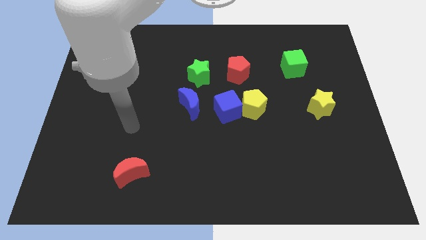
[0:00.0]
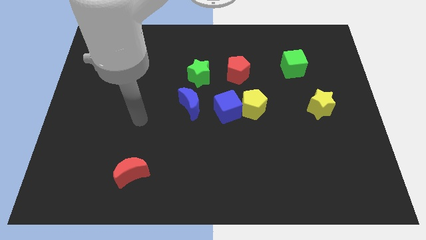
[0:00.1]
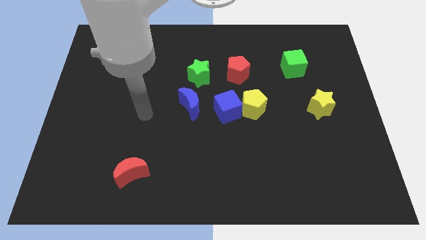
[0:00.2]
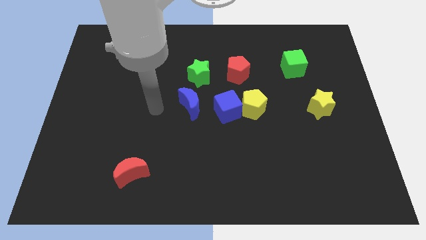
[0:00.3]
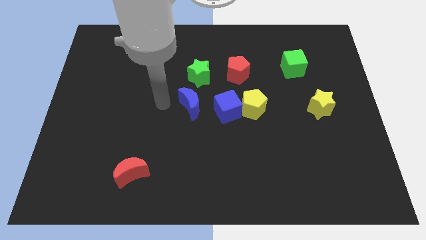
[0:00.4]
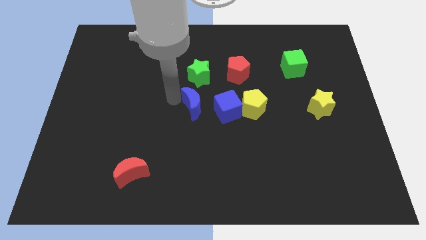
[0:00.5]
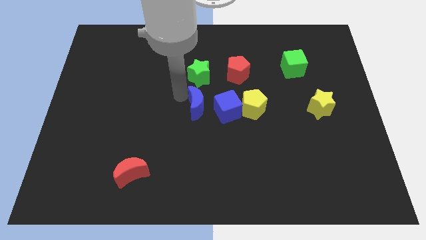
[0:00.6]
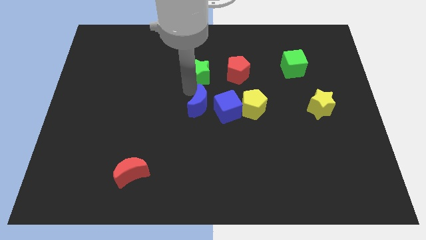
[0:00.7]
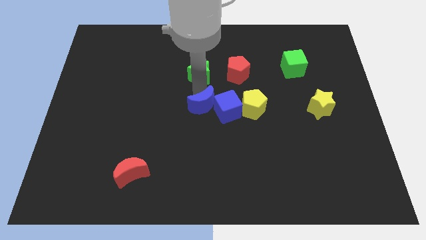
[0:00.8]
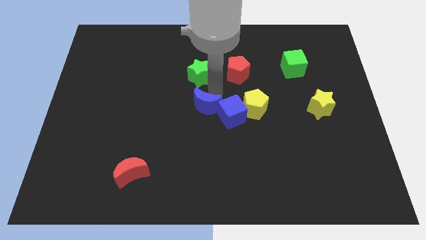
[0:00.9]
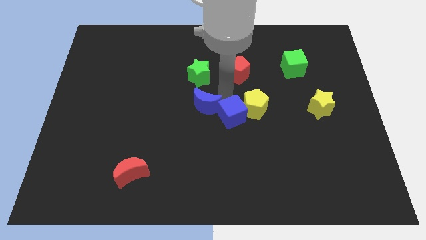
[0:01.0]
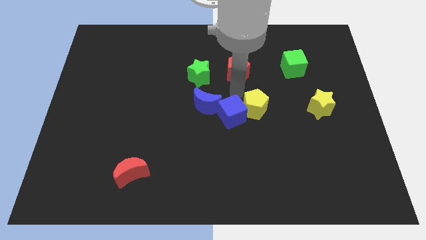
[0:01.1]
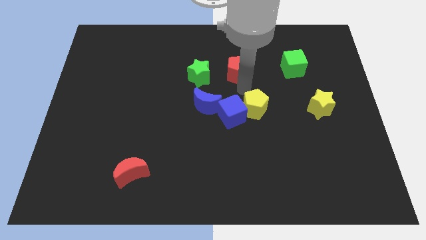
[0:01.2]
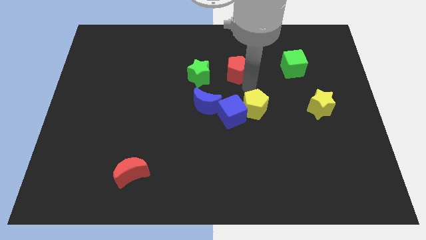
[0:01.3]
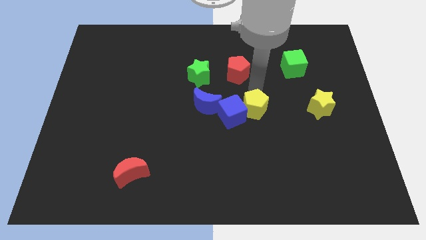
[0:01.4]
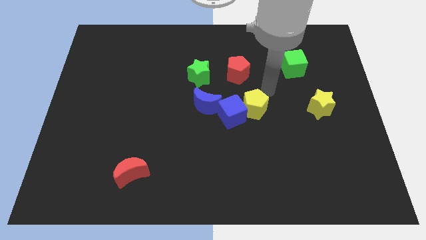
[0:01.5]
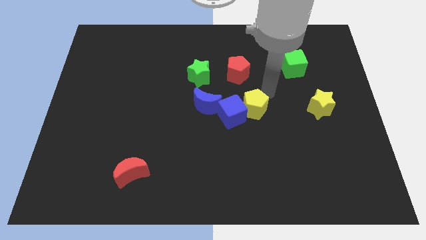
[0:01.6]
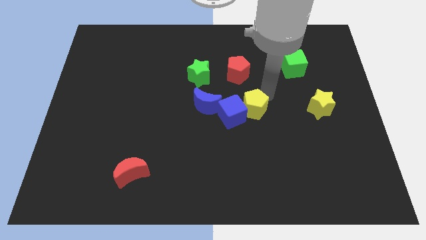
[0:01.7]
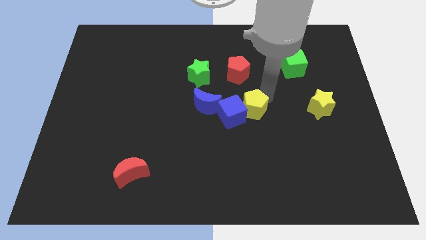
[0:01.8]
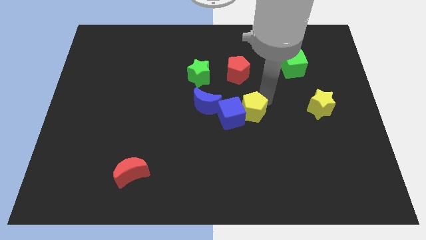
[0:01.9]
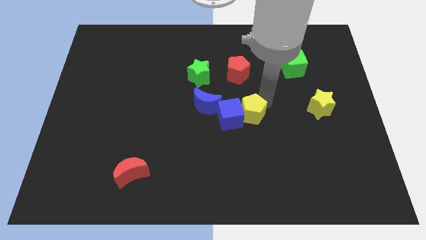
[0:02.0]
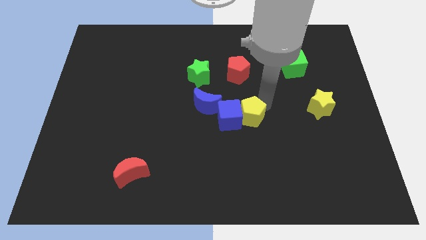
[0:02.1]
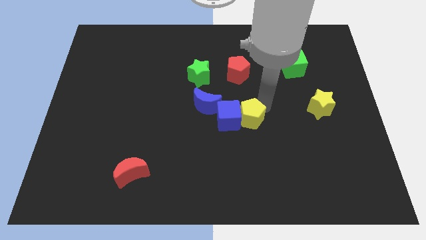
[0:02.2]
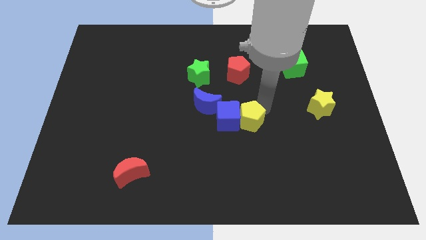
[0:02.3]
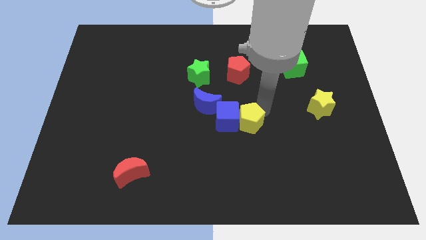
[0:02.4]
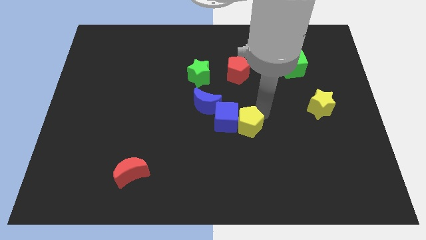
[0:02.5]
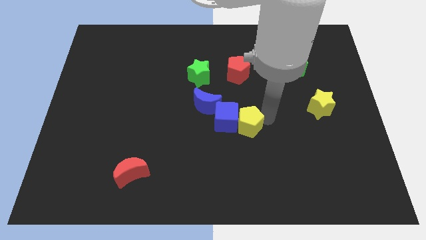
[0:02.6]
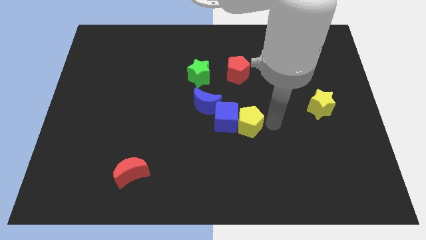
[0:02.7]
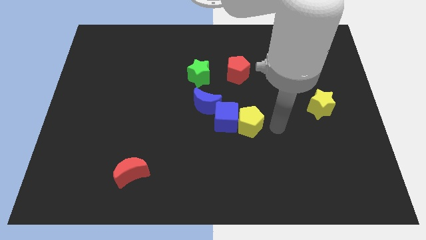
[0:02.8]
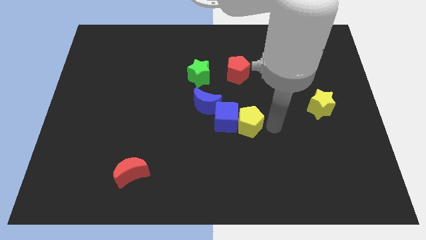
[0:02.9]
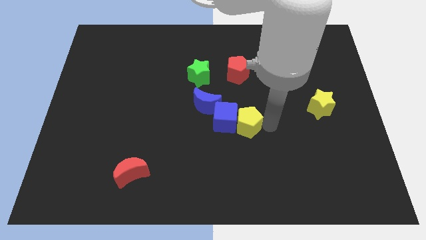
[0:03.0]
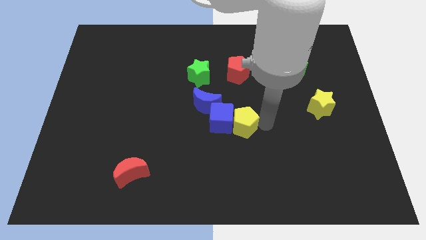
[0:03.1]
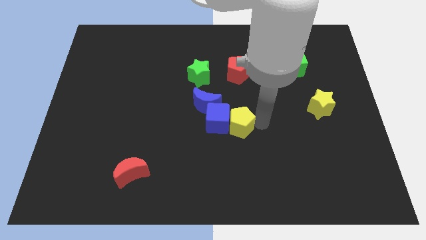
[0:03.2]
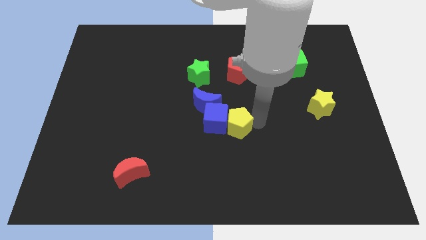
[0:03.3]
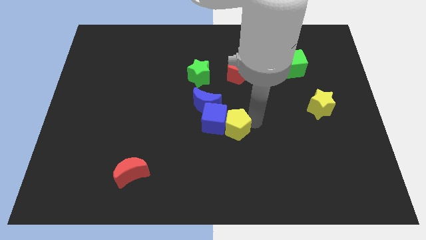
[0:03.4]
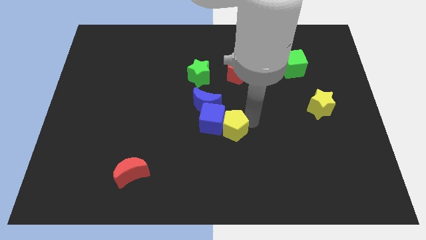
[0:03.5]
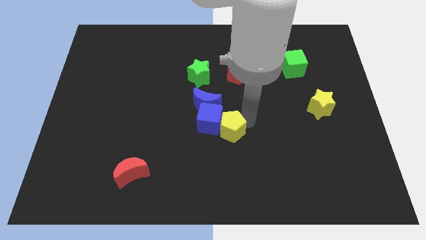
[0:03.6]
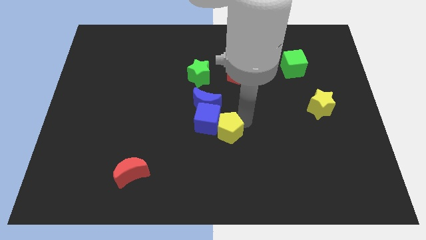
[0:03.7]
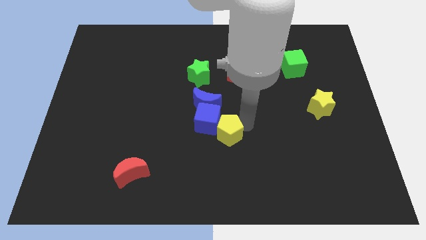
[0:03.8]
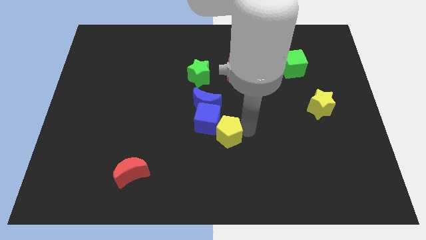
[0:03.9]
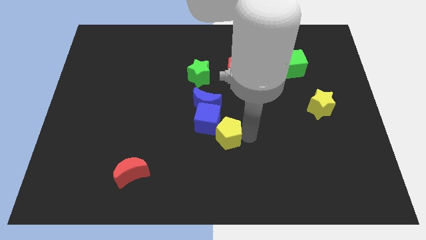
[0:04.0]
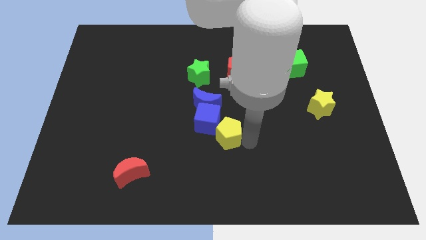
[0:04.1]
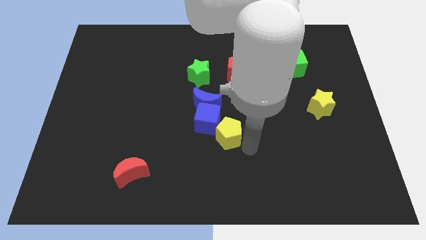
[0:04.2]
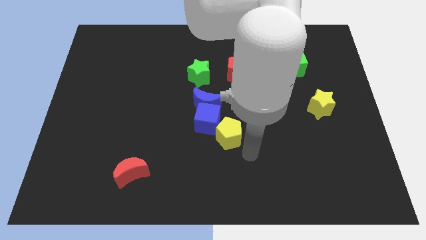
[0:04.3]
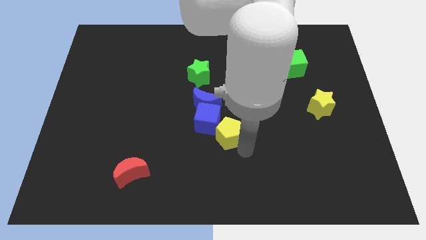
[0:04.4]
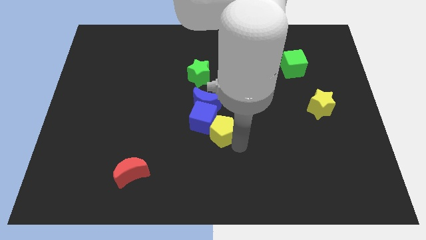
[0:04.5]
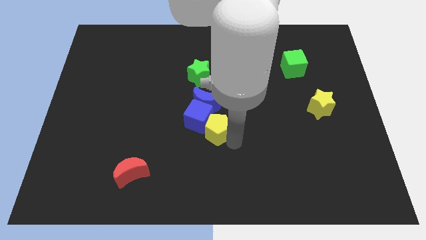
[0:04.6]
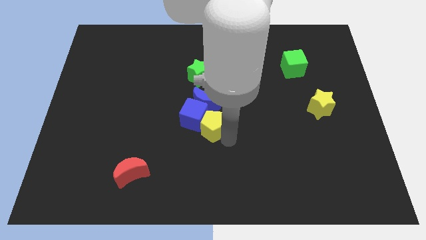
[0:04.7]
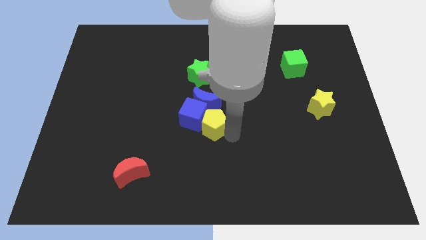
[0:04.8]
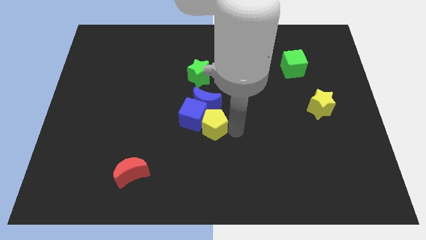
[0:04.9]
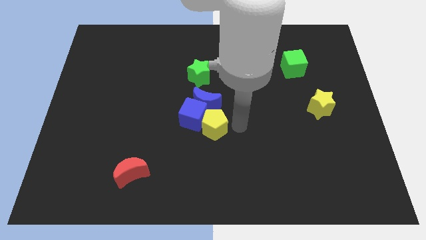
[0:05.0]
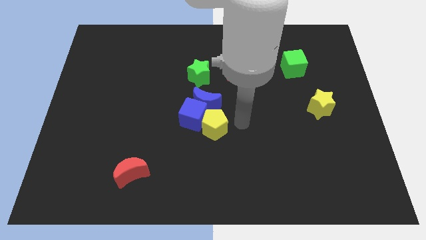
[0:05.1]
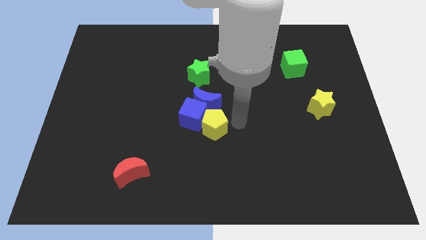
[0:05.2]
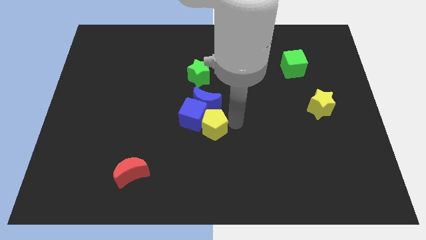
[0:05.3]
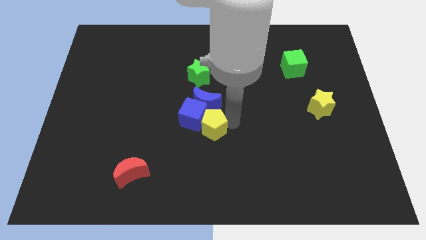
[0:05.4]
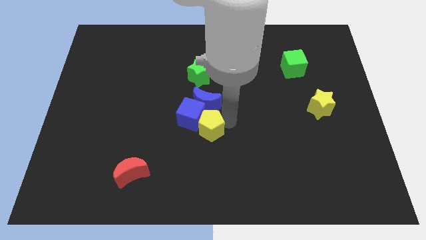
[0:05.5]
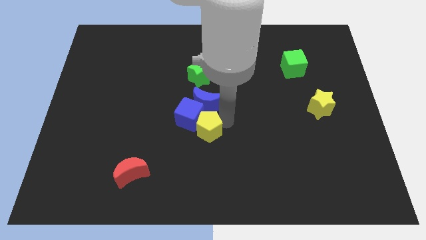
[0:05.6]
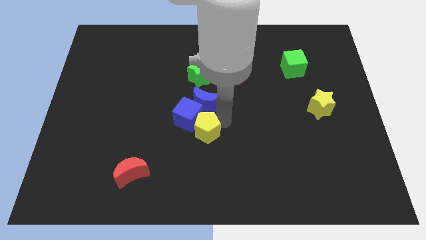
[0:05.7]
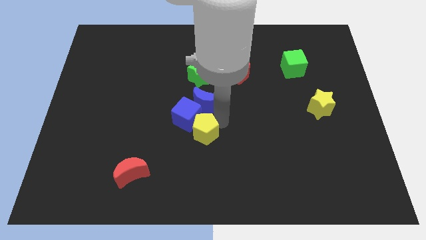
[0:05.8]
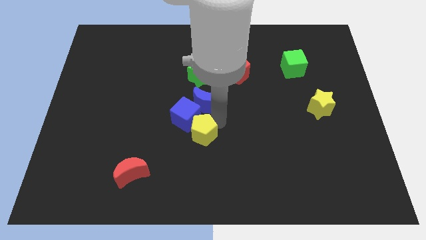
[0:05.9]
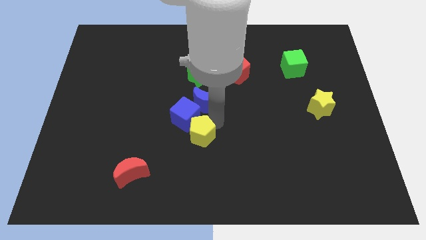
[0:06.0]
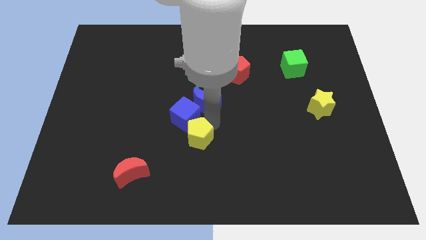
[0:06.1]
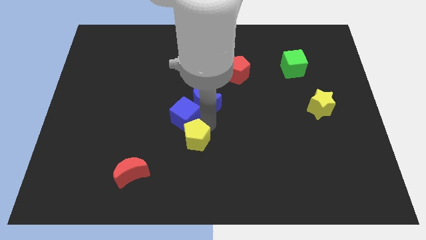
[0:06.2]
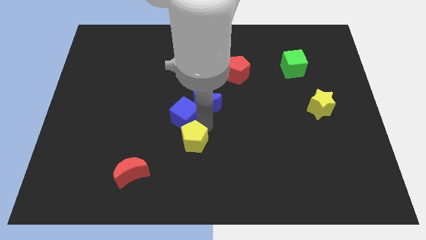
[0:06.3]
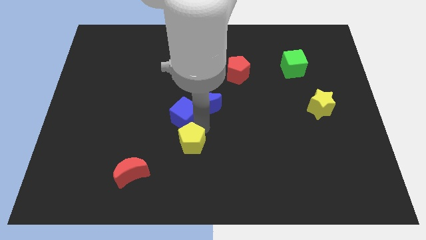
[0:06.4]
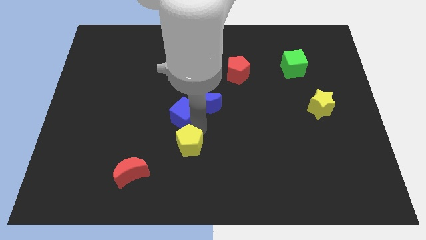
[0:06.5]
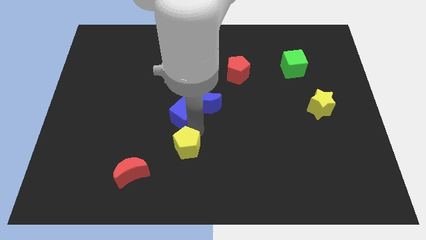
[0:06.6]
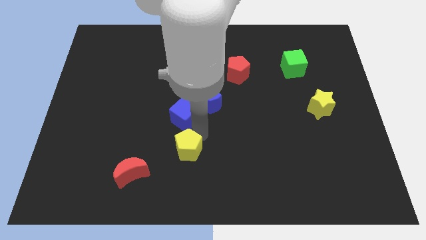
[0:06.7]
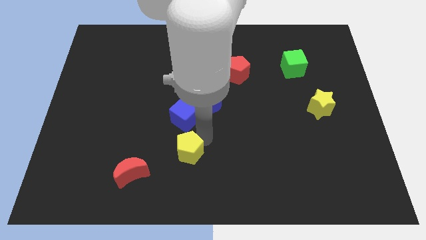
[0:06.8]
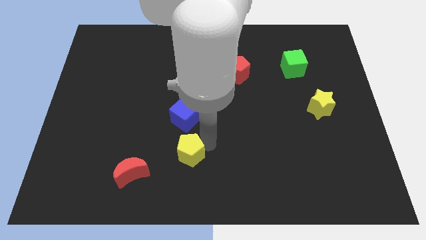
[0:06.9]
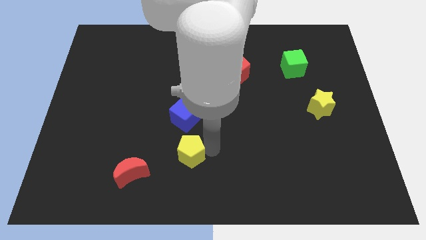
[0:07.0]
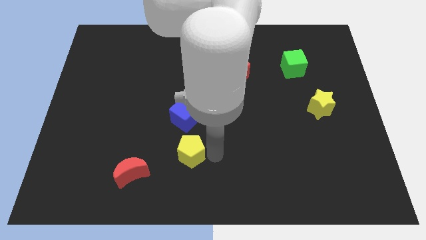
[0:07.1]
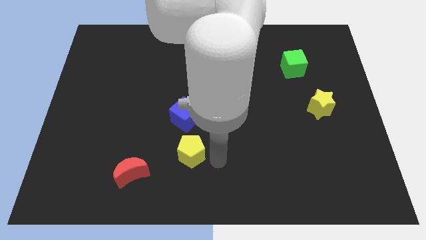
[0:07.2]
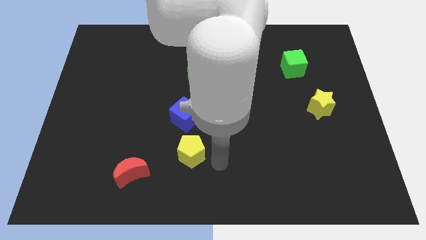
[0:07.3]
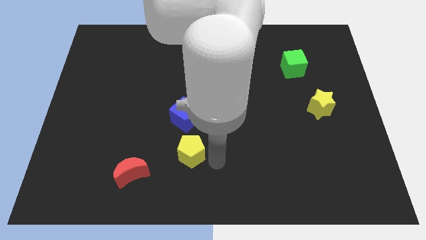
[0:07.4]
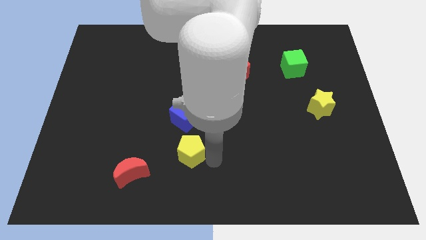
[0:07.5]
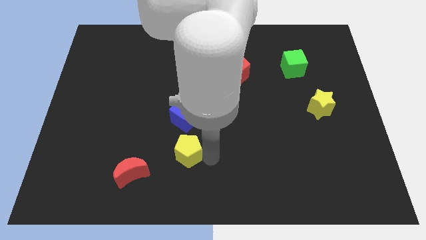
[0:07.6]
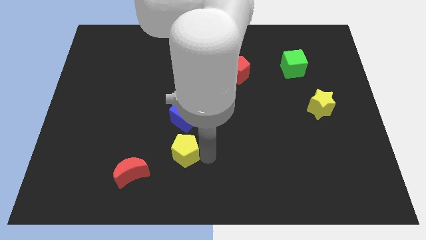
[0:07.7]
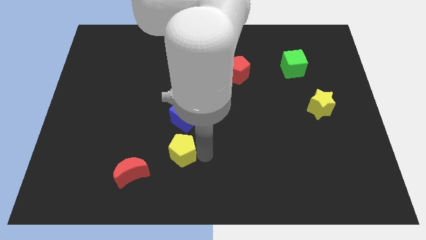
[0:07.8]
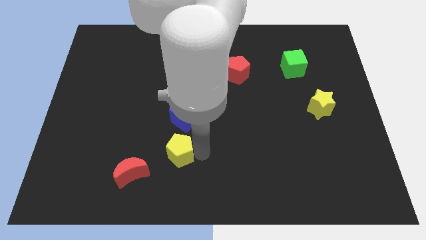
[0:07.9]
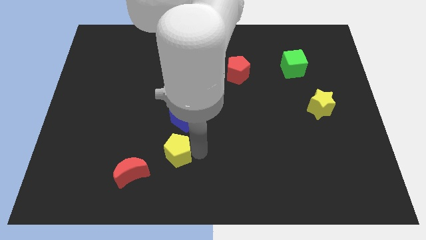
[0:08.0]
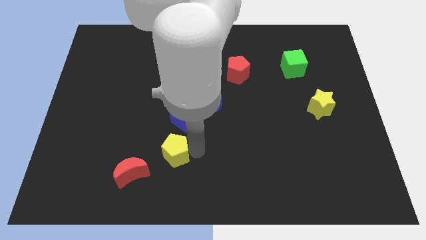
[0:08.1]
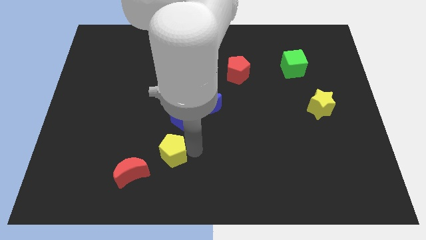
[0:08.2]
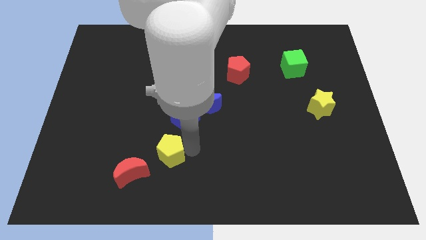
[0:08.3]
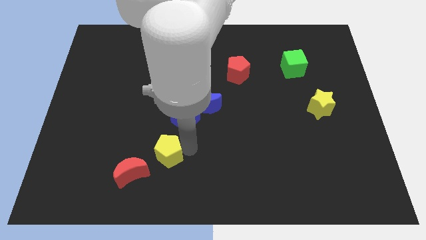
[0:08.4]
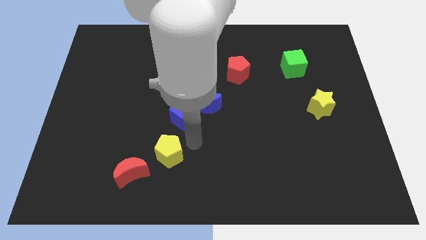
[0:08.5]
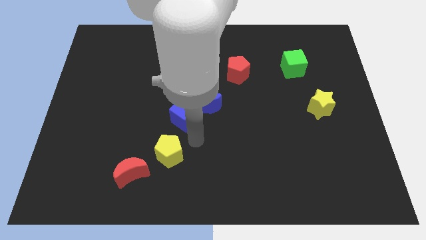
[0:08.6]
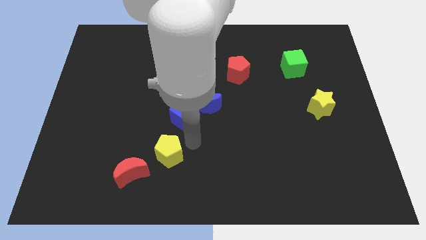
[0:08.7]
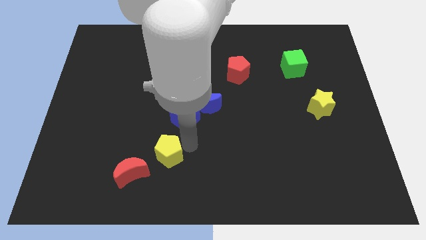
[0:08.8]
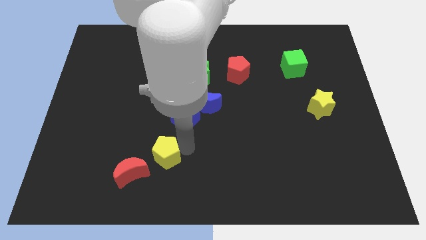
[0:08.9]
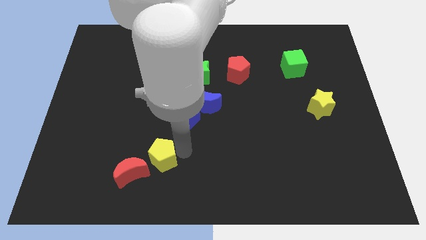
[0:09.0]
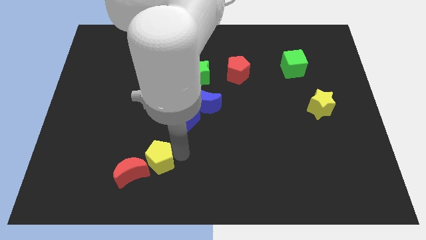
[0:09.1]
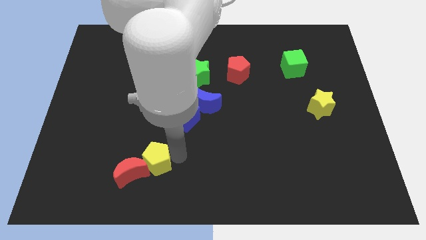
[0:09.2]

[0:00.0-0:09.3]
move the yellow pentagon next to the red moon
